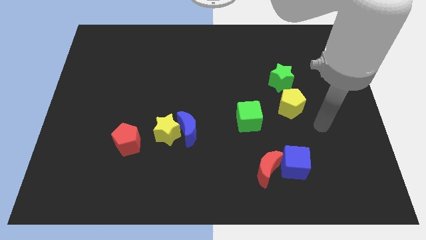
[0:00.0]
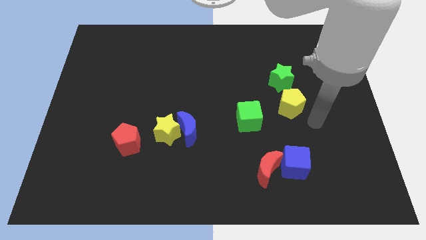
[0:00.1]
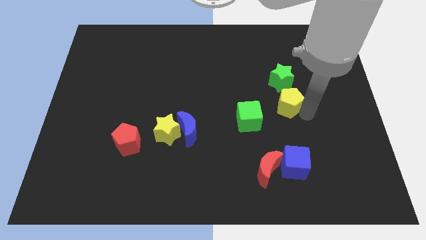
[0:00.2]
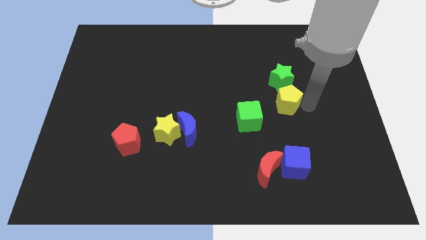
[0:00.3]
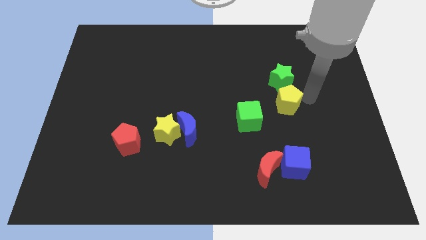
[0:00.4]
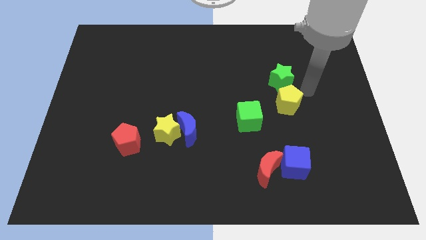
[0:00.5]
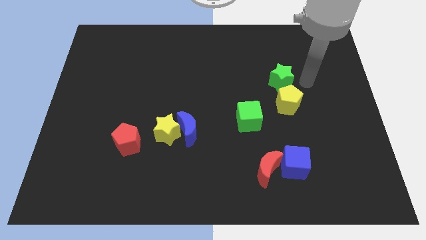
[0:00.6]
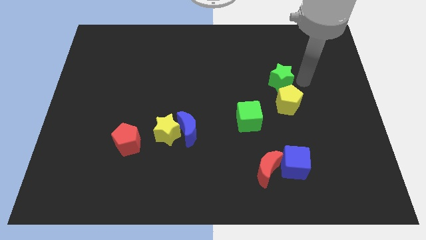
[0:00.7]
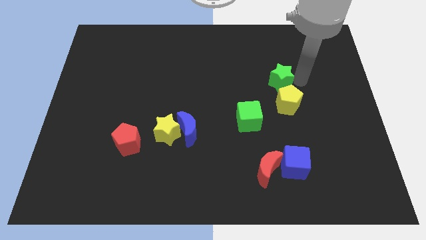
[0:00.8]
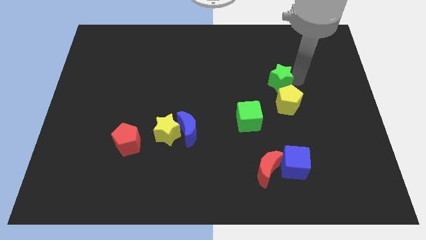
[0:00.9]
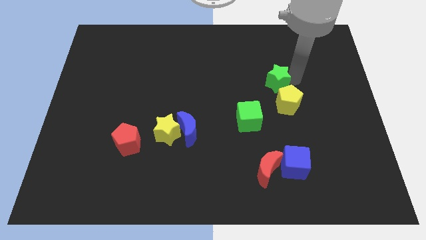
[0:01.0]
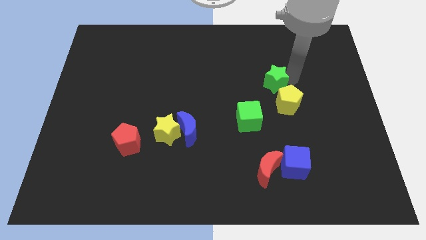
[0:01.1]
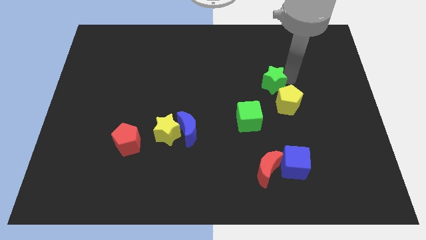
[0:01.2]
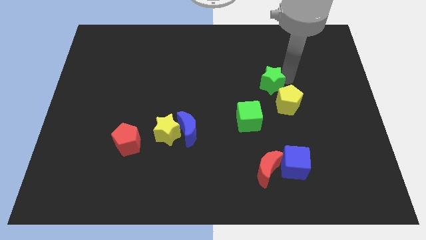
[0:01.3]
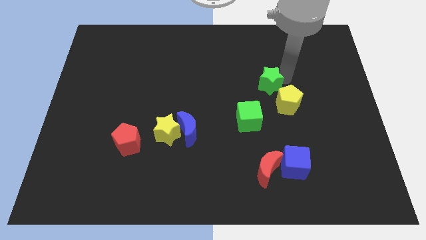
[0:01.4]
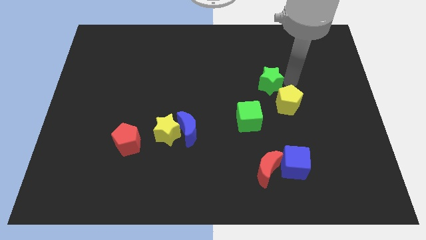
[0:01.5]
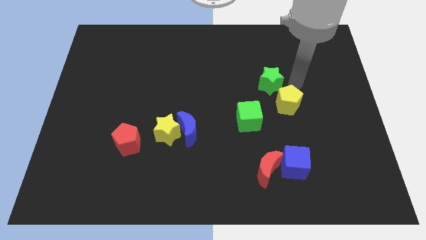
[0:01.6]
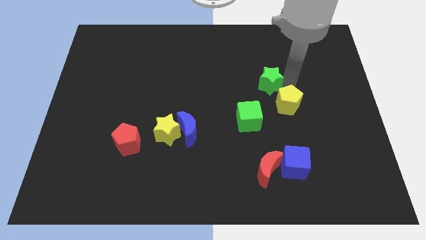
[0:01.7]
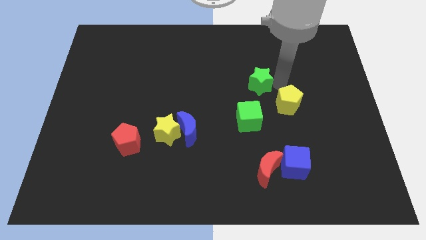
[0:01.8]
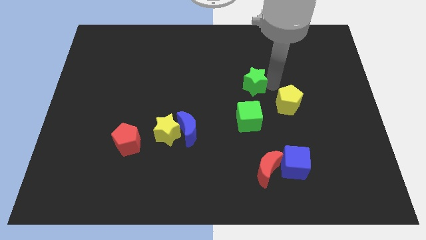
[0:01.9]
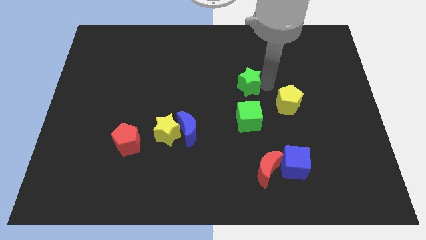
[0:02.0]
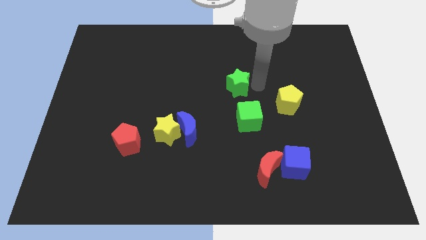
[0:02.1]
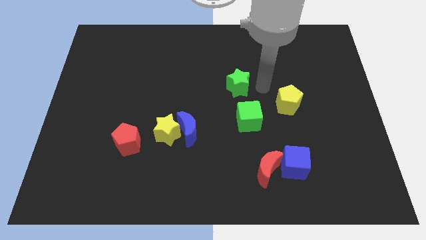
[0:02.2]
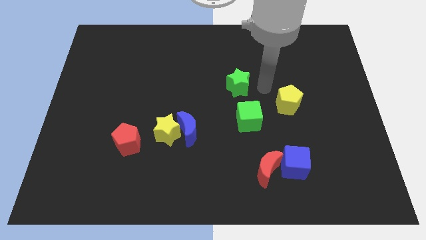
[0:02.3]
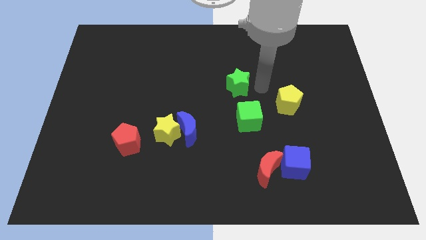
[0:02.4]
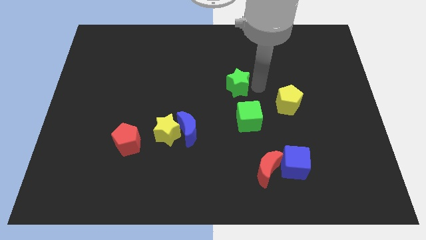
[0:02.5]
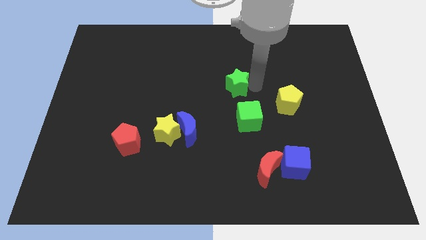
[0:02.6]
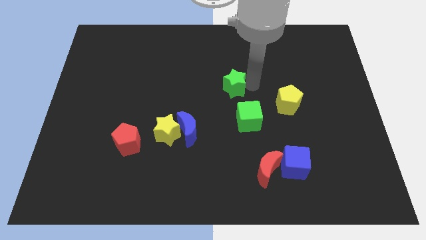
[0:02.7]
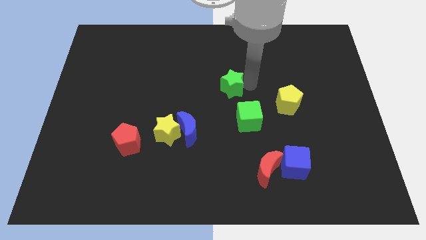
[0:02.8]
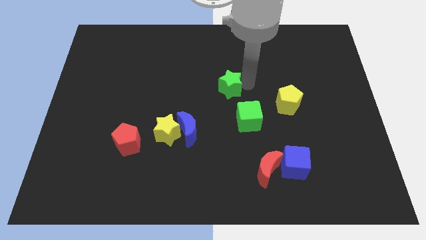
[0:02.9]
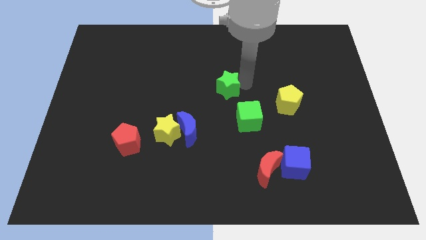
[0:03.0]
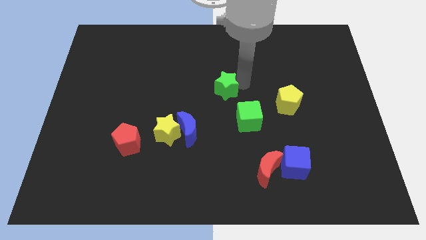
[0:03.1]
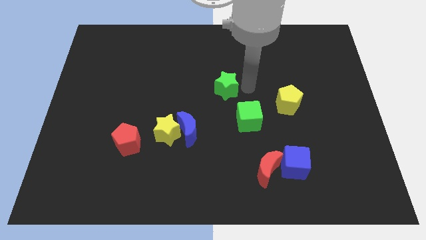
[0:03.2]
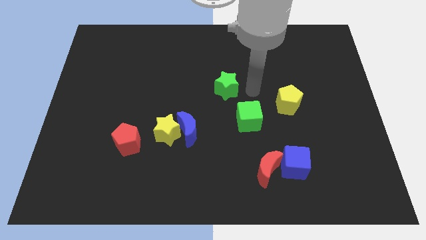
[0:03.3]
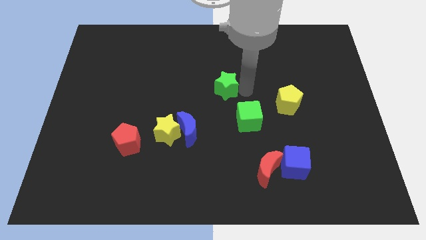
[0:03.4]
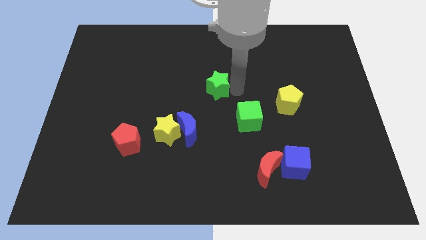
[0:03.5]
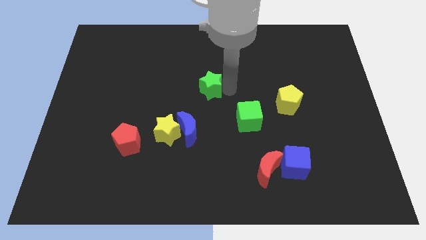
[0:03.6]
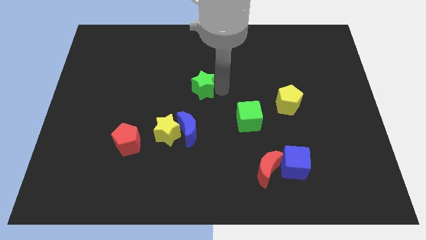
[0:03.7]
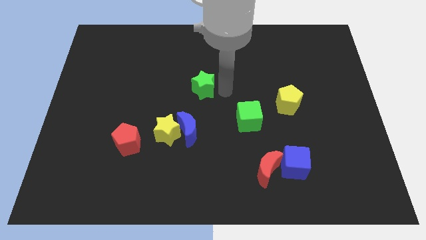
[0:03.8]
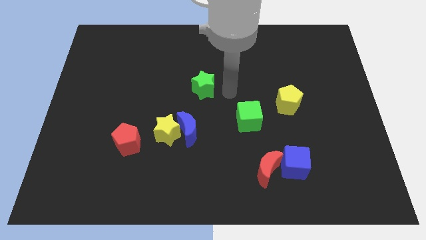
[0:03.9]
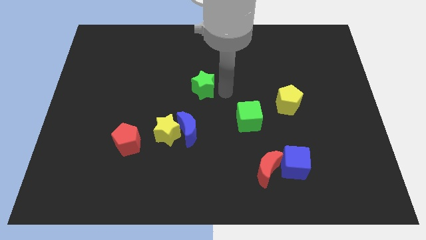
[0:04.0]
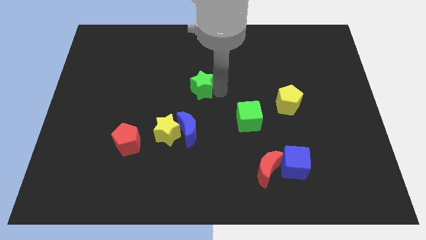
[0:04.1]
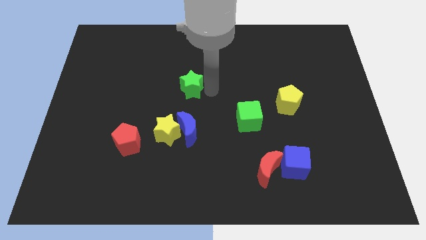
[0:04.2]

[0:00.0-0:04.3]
move the green star left

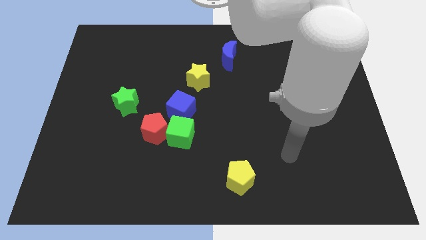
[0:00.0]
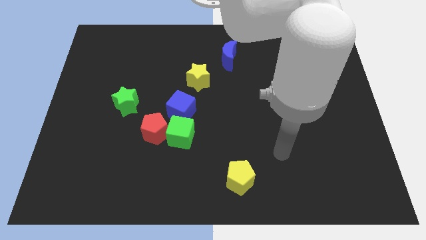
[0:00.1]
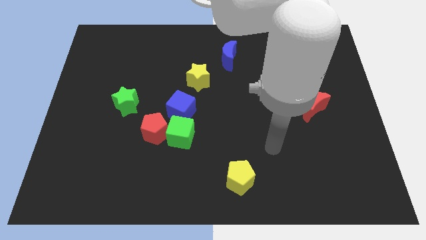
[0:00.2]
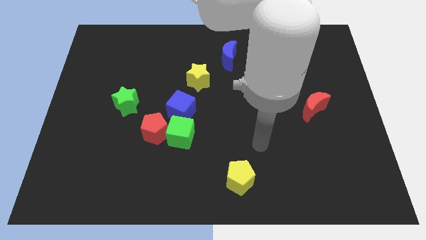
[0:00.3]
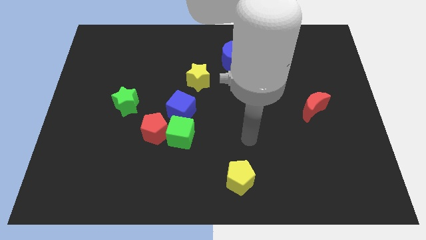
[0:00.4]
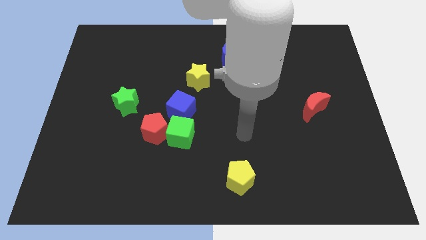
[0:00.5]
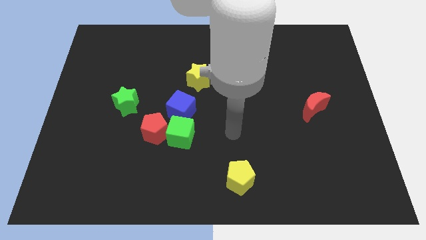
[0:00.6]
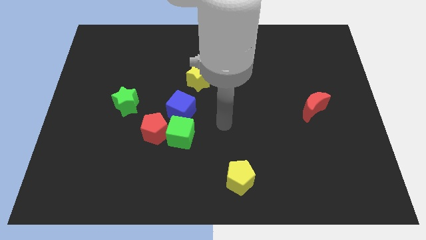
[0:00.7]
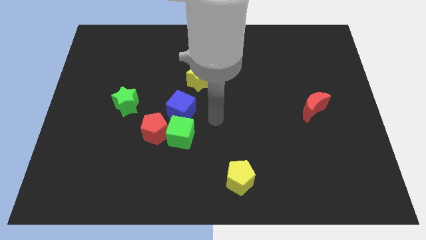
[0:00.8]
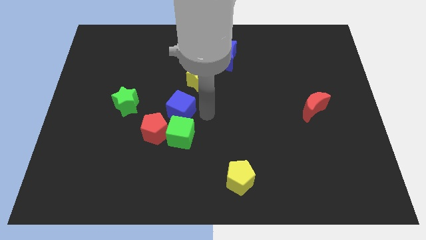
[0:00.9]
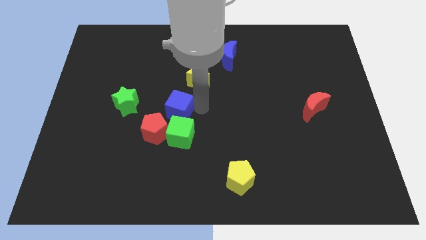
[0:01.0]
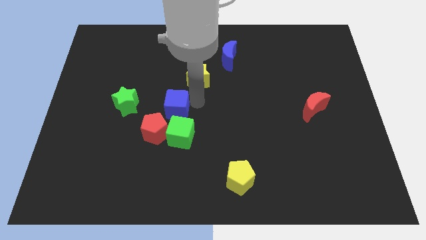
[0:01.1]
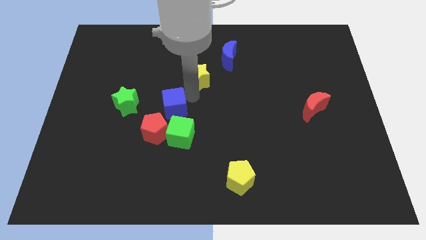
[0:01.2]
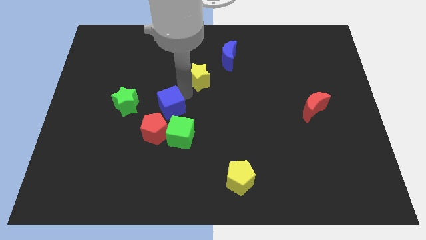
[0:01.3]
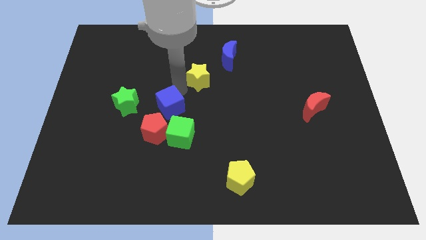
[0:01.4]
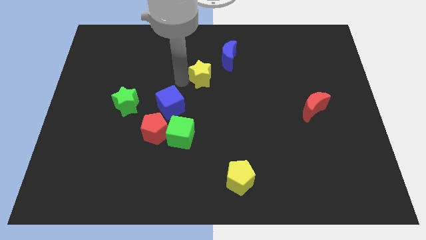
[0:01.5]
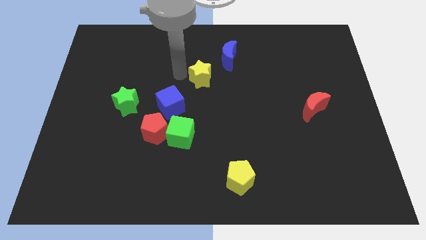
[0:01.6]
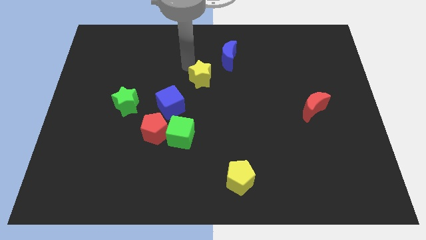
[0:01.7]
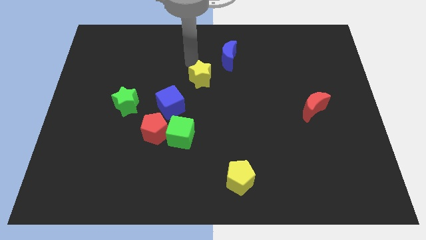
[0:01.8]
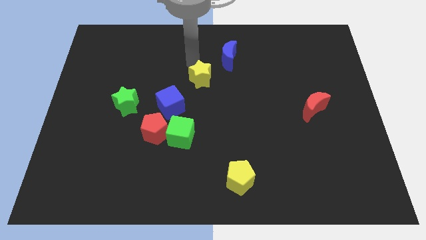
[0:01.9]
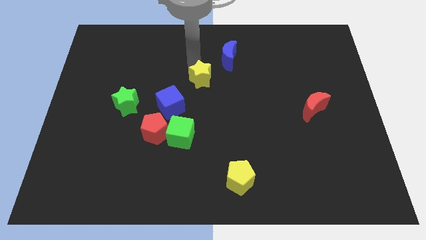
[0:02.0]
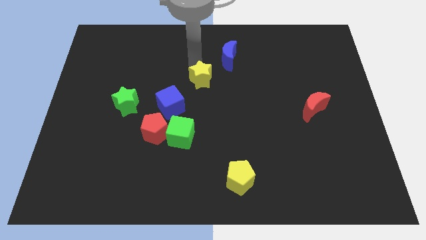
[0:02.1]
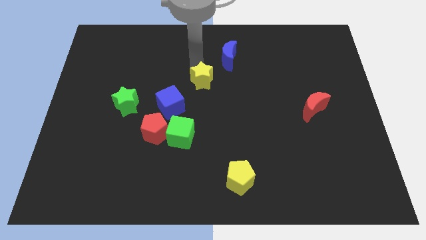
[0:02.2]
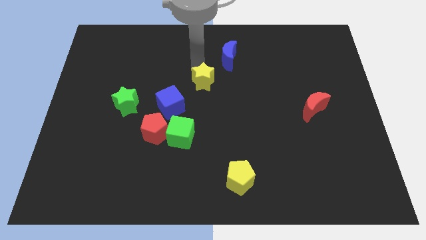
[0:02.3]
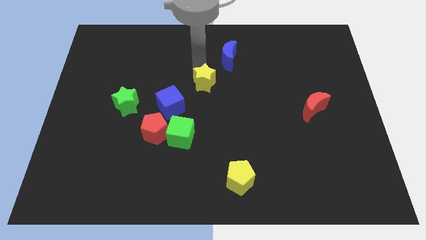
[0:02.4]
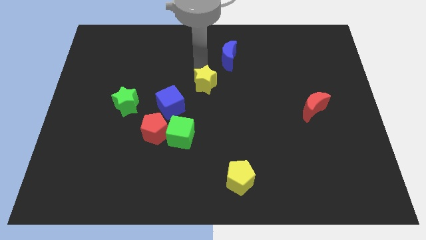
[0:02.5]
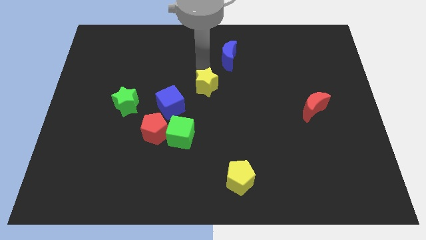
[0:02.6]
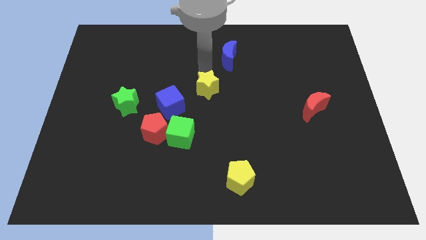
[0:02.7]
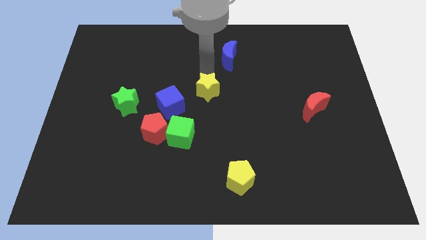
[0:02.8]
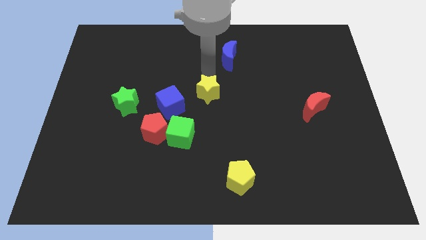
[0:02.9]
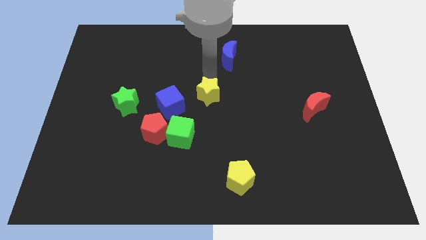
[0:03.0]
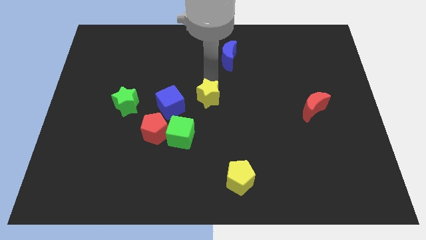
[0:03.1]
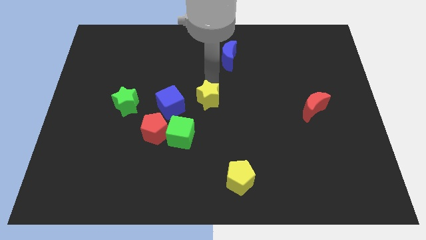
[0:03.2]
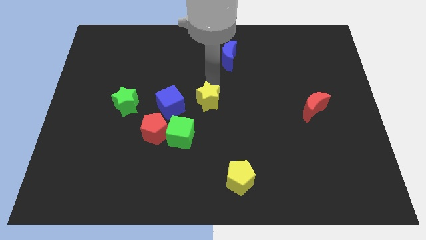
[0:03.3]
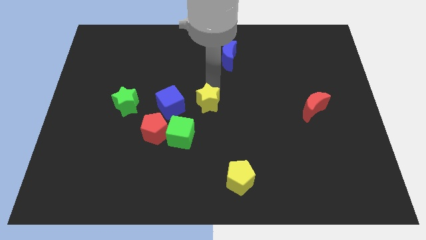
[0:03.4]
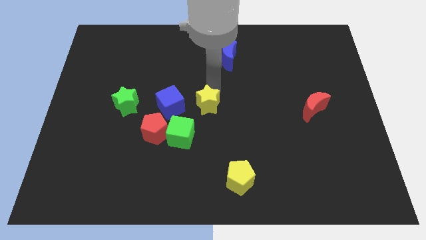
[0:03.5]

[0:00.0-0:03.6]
move the yellow star slightly down

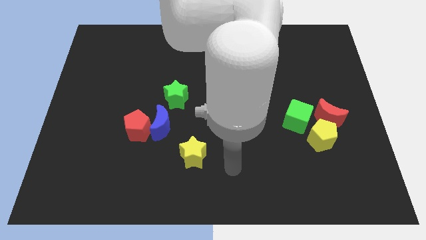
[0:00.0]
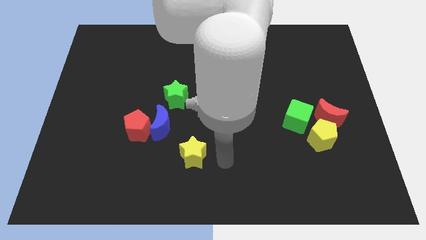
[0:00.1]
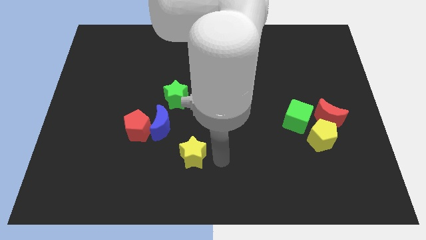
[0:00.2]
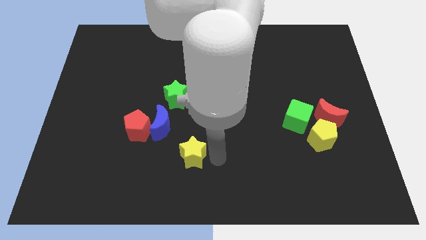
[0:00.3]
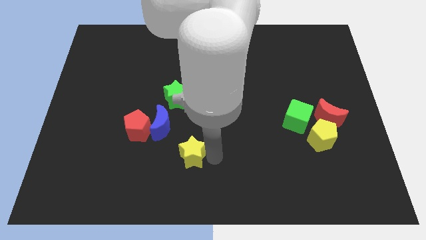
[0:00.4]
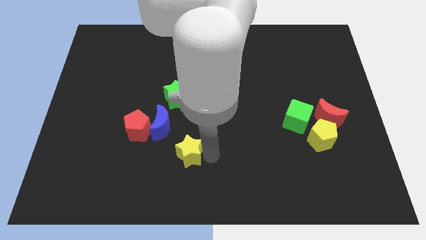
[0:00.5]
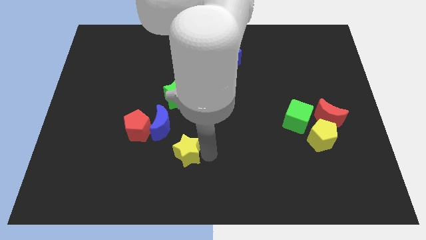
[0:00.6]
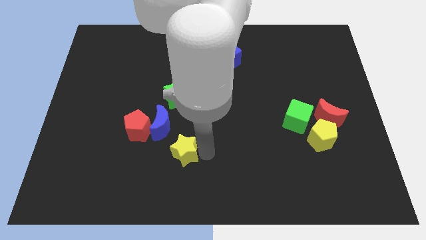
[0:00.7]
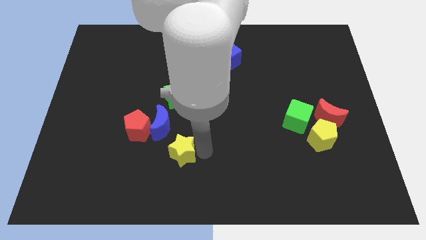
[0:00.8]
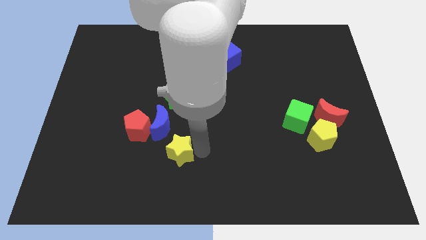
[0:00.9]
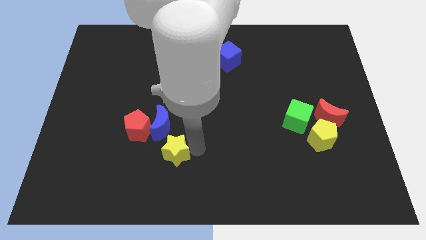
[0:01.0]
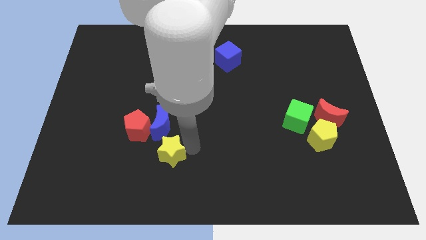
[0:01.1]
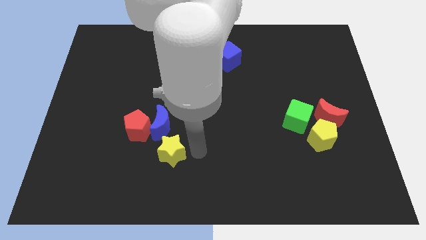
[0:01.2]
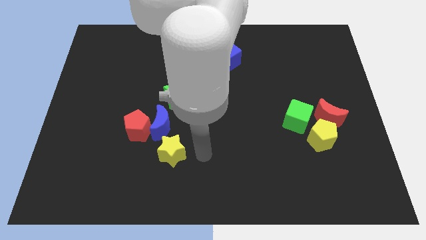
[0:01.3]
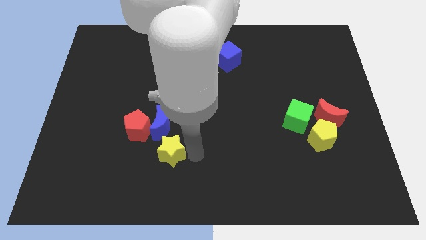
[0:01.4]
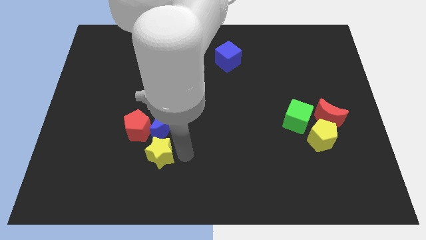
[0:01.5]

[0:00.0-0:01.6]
slide the yellow star slightly to the left
